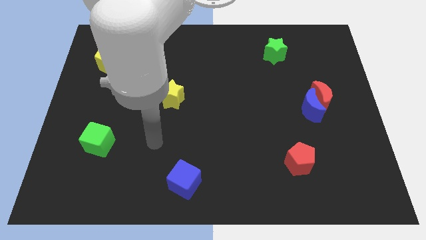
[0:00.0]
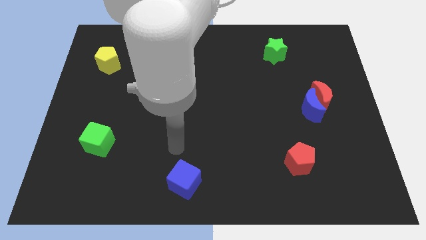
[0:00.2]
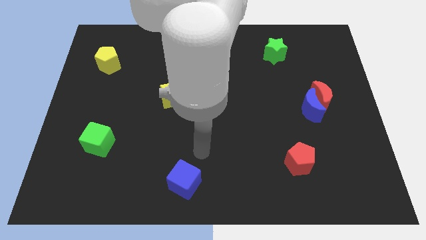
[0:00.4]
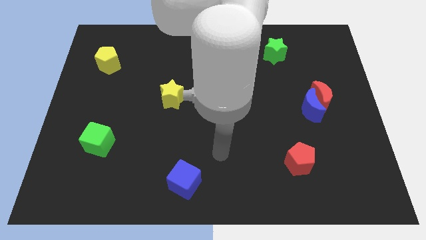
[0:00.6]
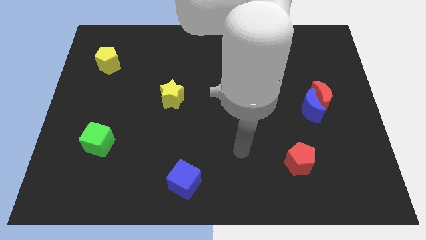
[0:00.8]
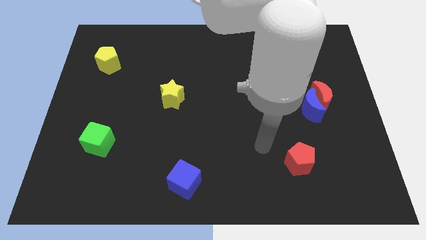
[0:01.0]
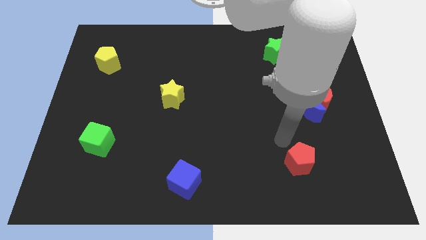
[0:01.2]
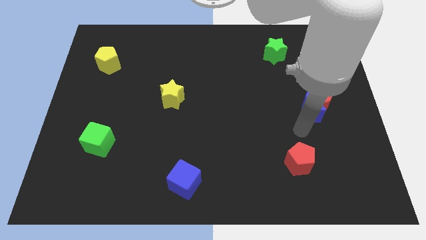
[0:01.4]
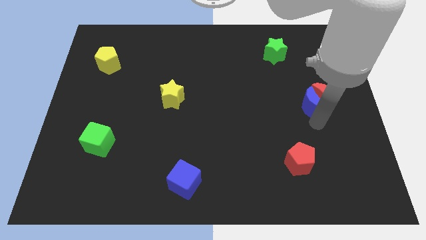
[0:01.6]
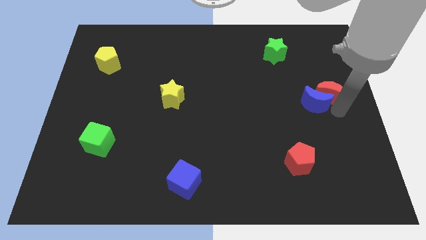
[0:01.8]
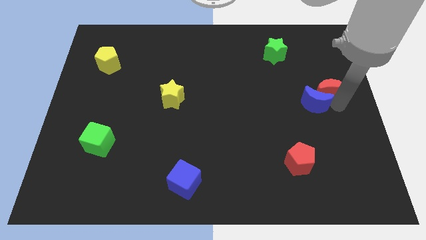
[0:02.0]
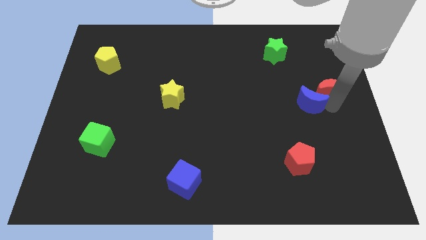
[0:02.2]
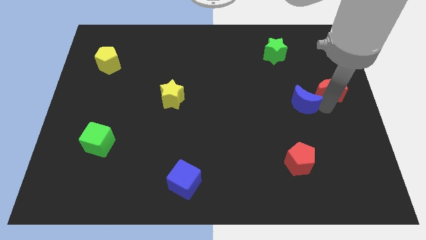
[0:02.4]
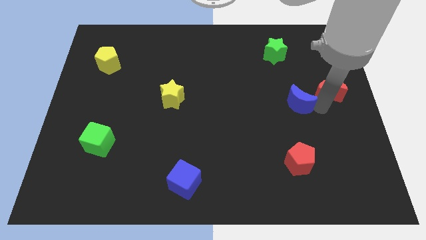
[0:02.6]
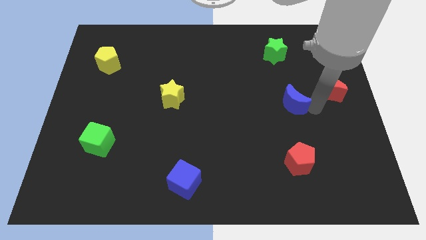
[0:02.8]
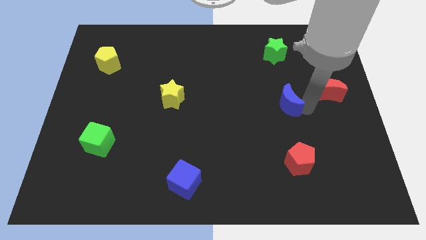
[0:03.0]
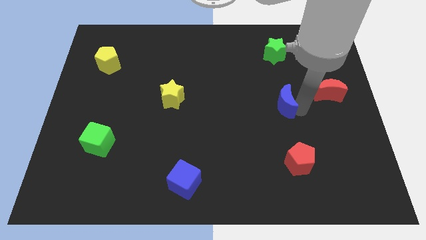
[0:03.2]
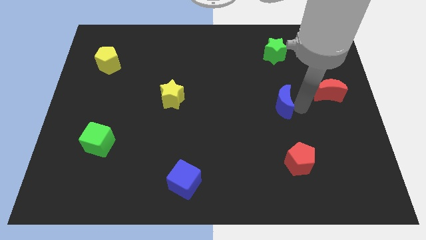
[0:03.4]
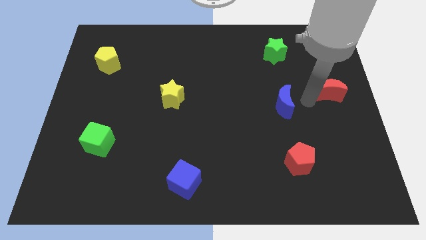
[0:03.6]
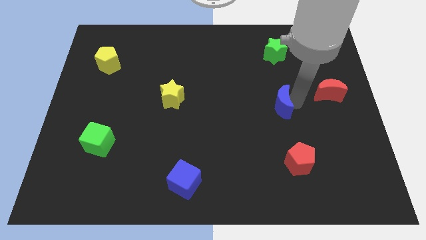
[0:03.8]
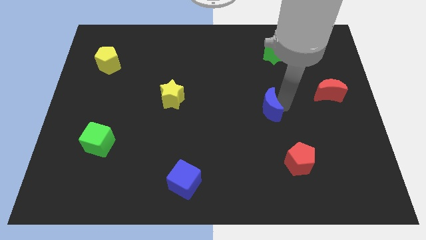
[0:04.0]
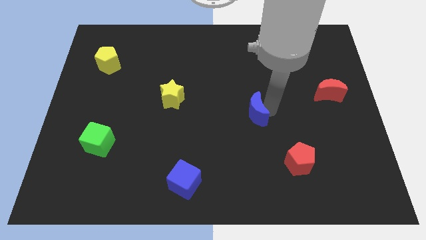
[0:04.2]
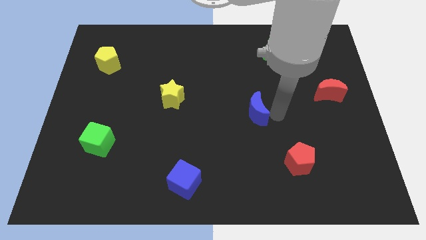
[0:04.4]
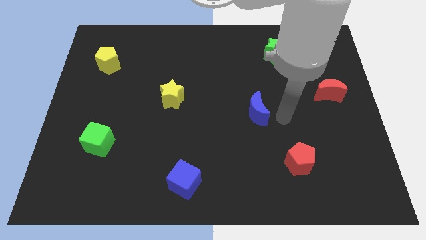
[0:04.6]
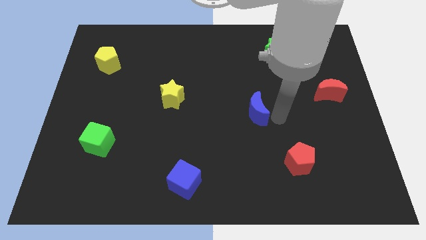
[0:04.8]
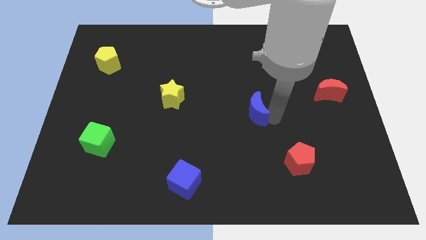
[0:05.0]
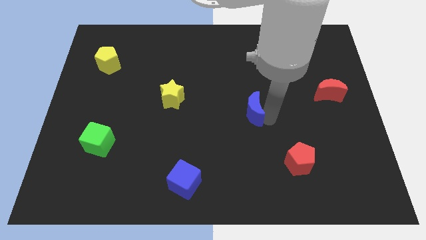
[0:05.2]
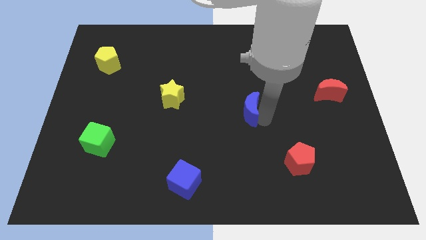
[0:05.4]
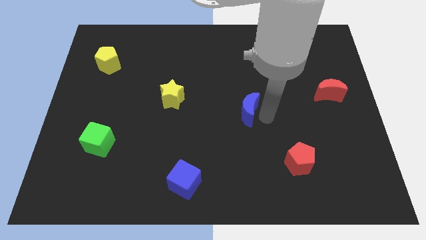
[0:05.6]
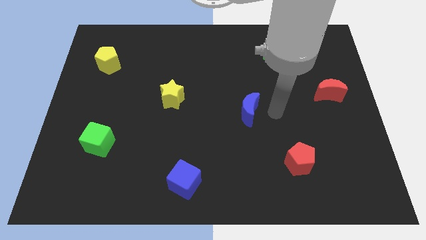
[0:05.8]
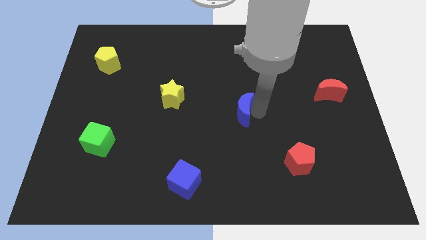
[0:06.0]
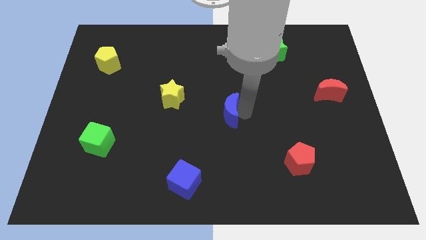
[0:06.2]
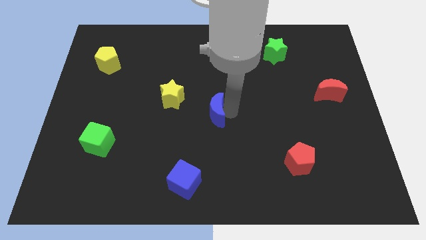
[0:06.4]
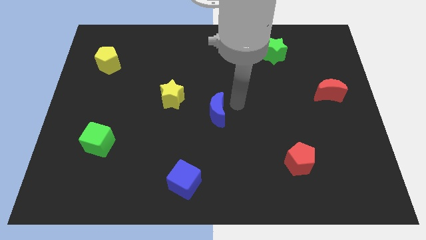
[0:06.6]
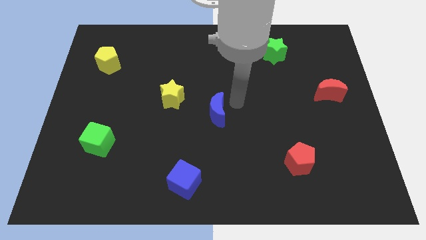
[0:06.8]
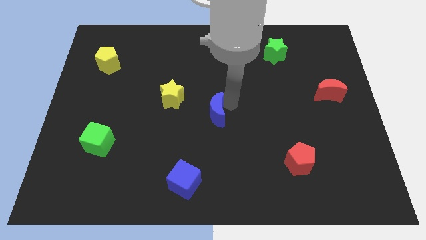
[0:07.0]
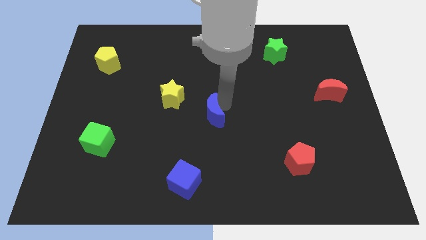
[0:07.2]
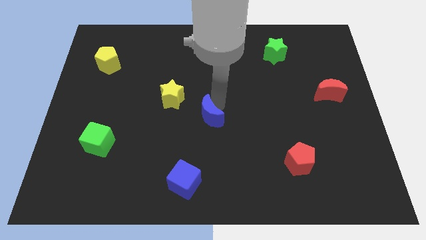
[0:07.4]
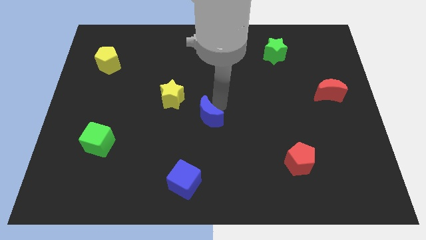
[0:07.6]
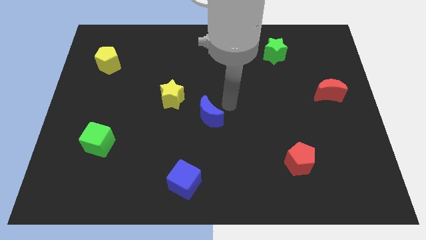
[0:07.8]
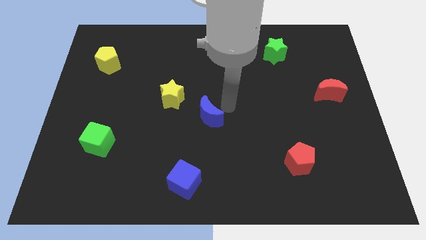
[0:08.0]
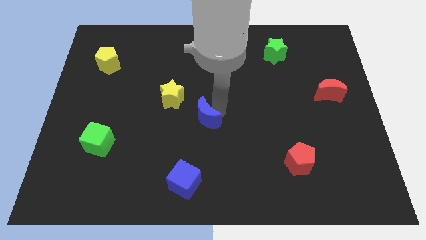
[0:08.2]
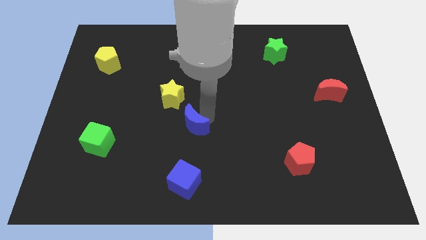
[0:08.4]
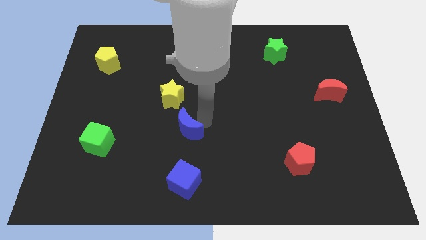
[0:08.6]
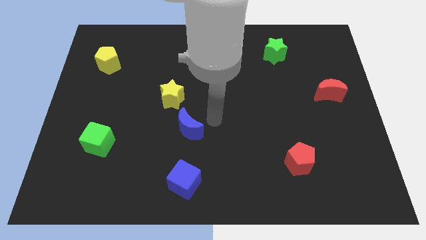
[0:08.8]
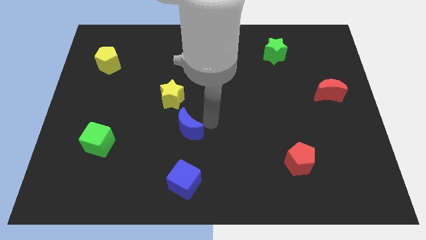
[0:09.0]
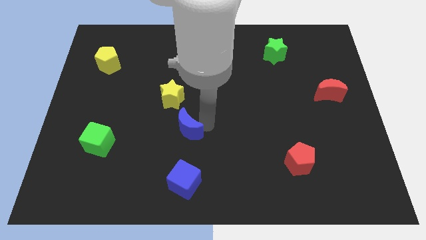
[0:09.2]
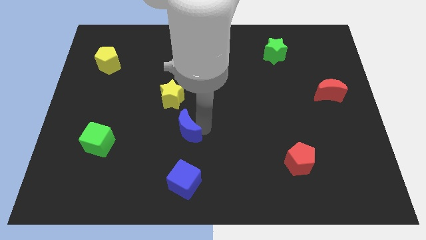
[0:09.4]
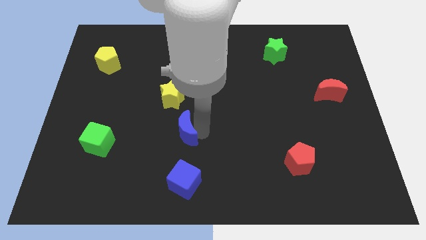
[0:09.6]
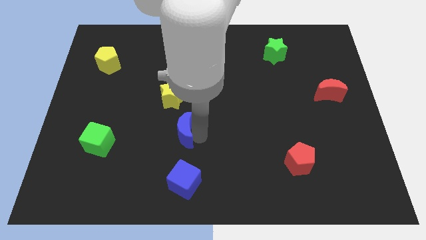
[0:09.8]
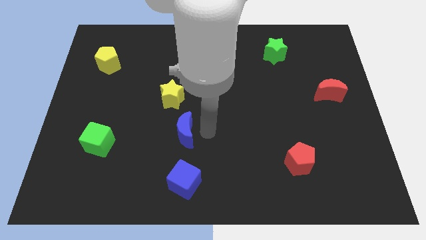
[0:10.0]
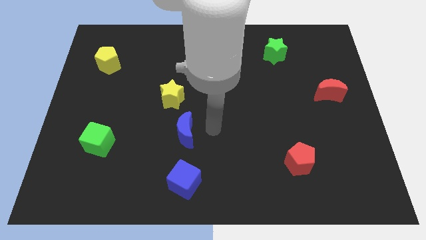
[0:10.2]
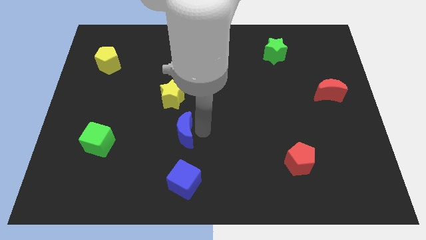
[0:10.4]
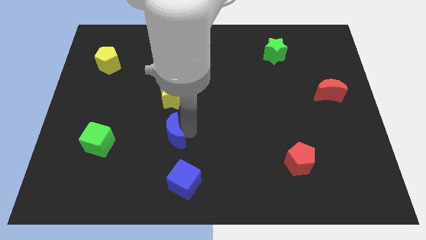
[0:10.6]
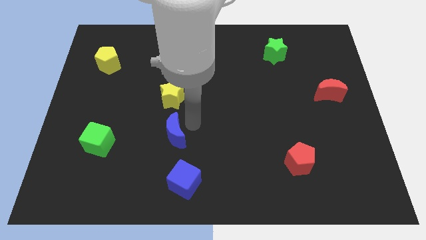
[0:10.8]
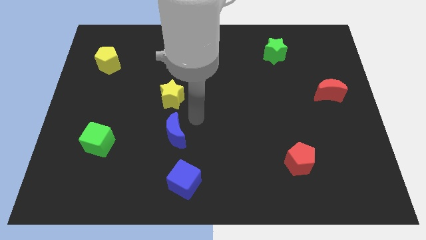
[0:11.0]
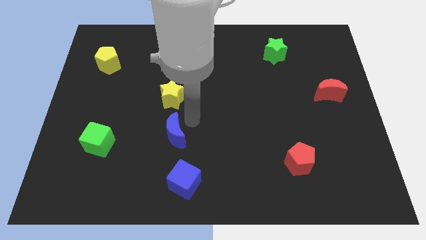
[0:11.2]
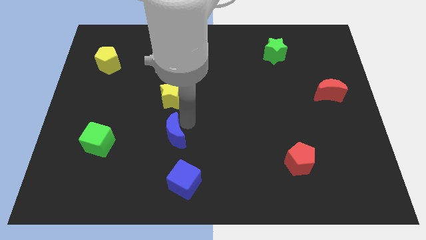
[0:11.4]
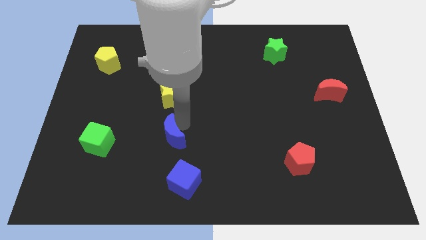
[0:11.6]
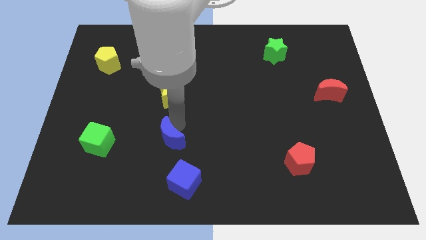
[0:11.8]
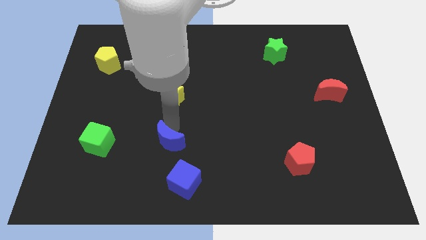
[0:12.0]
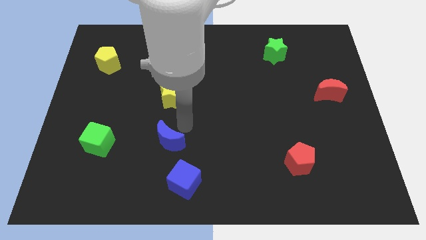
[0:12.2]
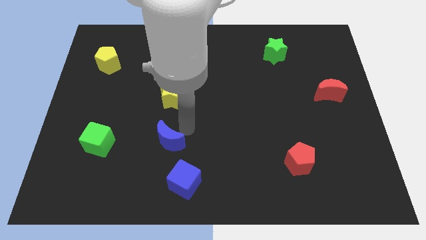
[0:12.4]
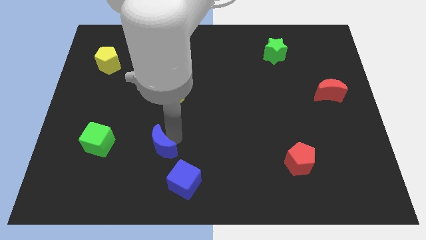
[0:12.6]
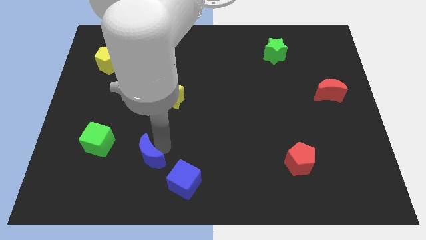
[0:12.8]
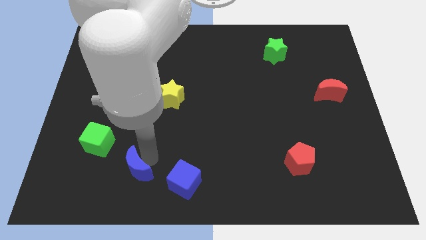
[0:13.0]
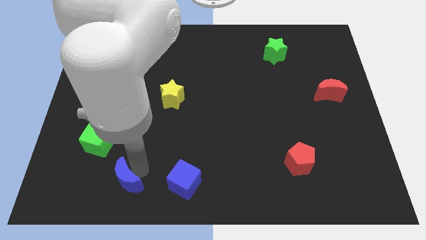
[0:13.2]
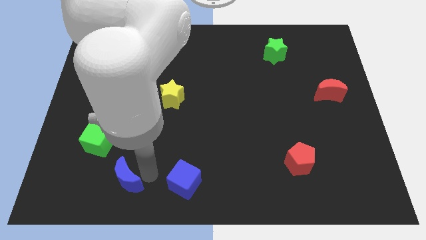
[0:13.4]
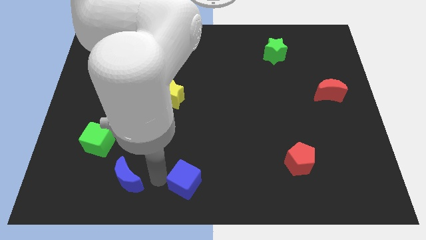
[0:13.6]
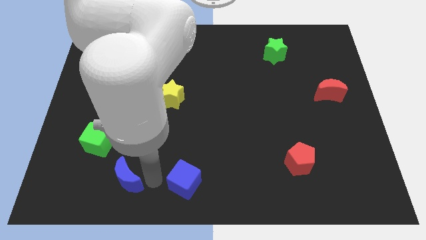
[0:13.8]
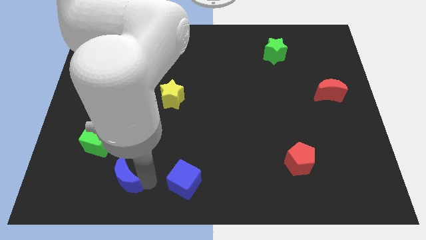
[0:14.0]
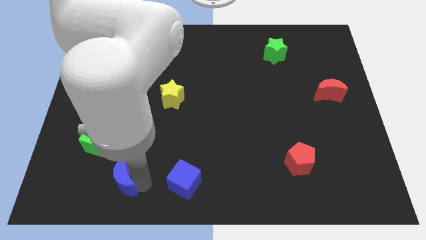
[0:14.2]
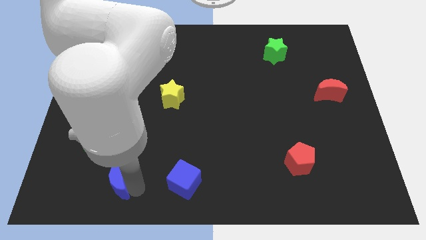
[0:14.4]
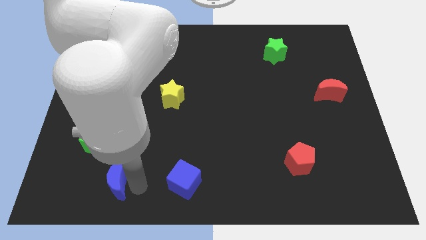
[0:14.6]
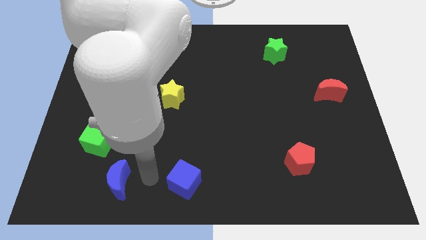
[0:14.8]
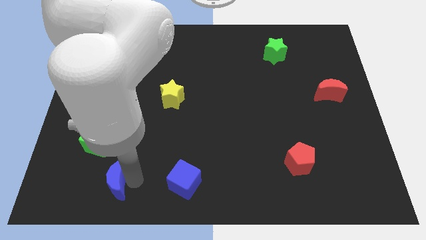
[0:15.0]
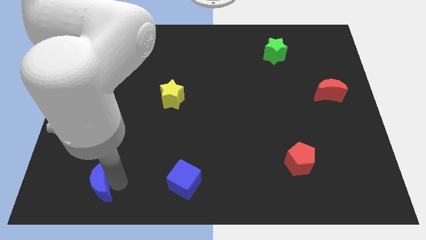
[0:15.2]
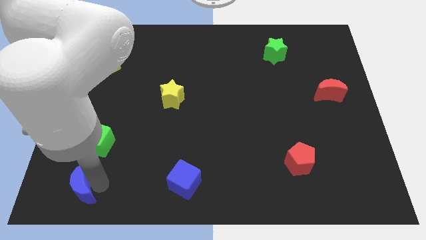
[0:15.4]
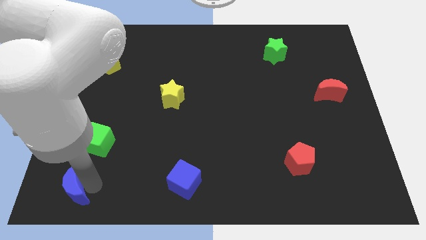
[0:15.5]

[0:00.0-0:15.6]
slide the blue moon to the bottom left of the board
